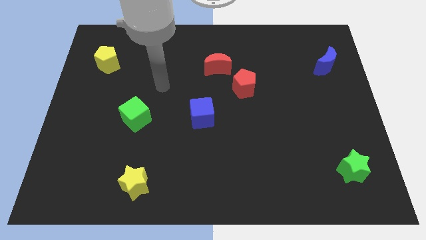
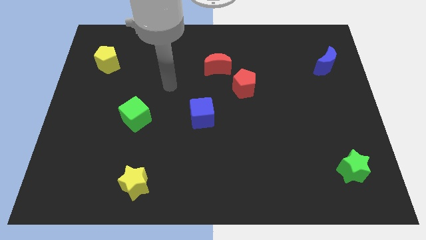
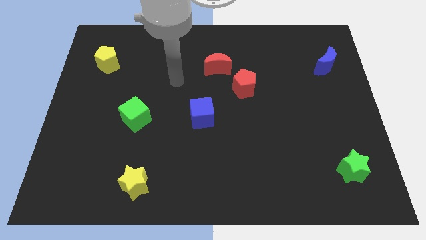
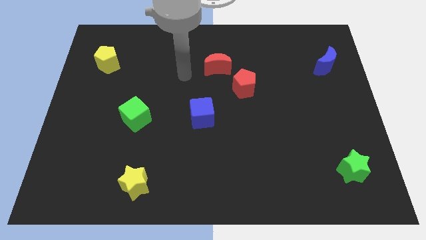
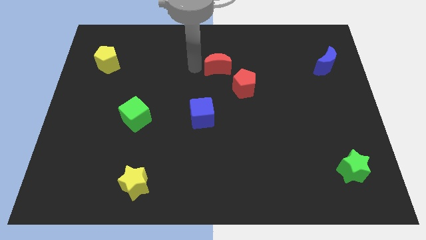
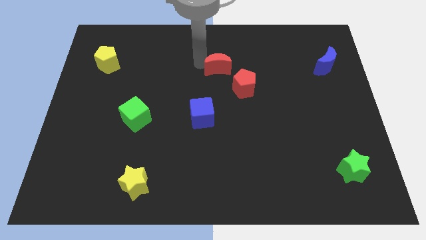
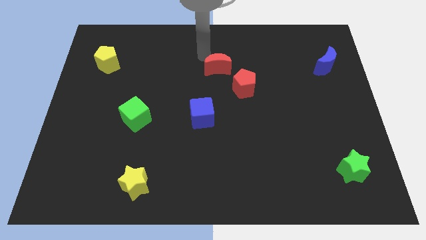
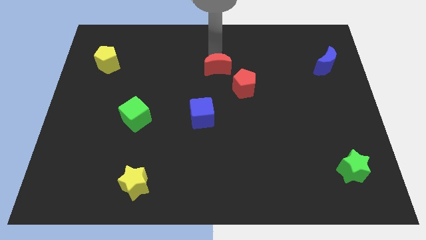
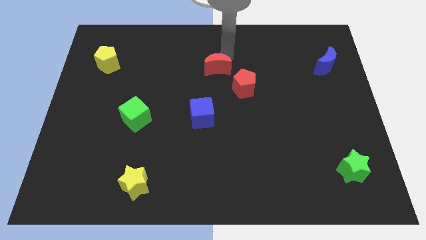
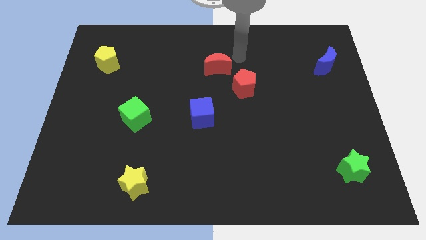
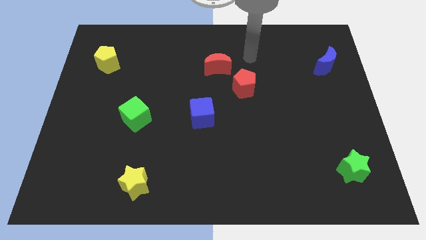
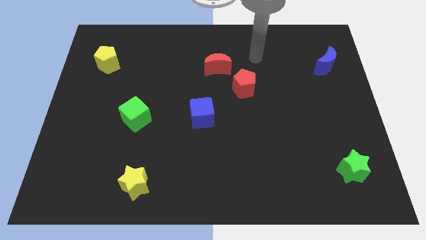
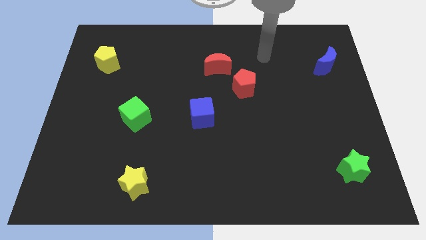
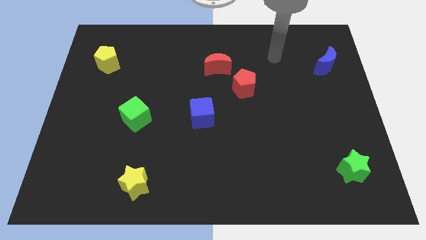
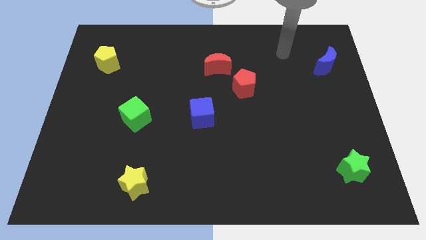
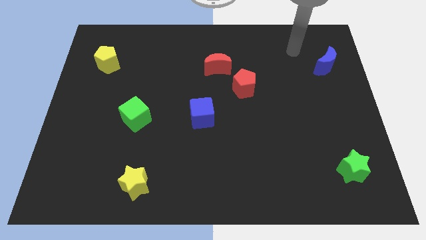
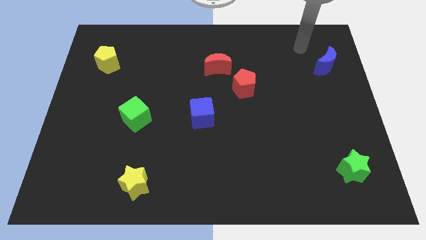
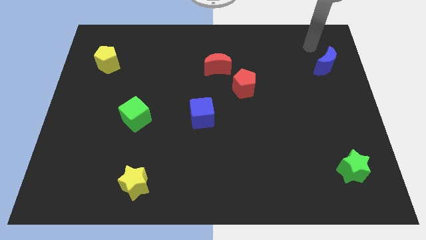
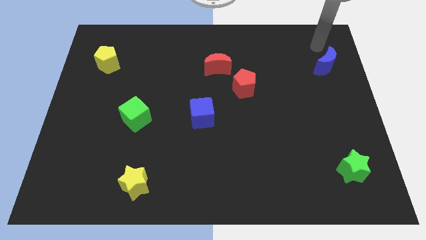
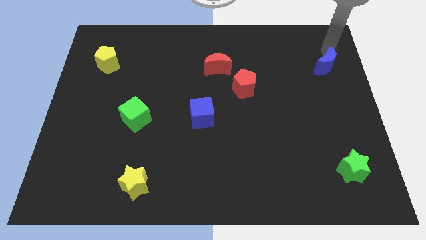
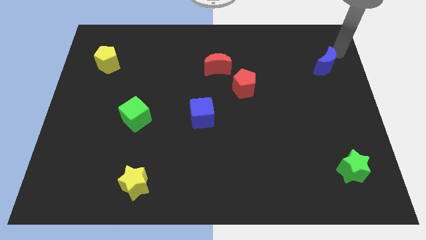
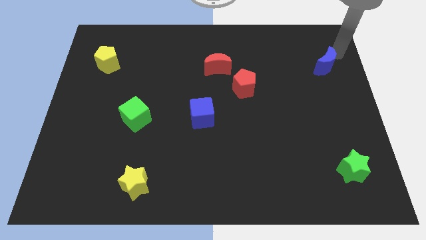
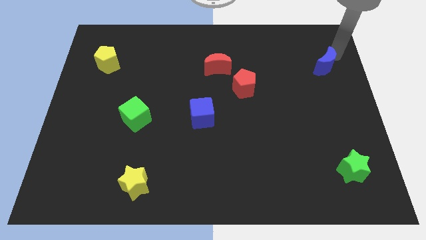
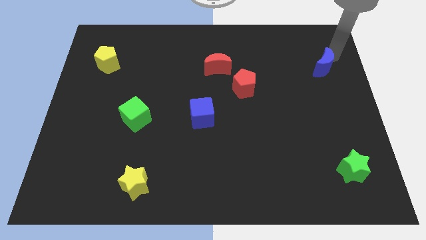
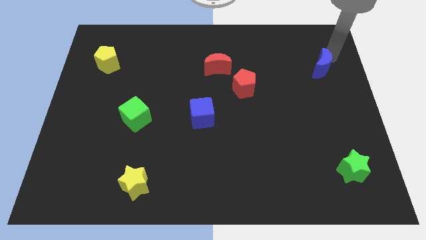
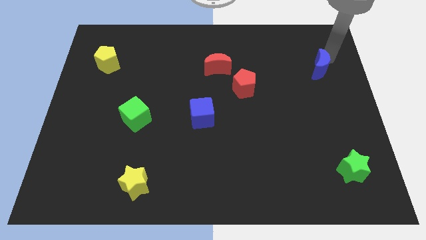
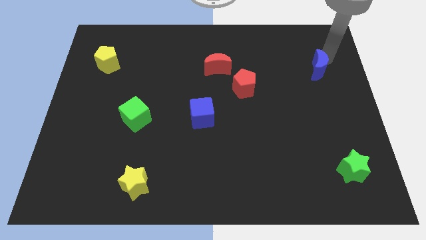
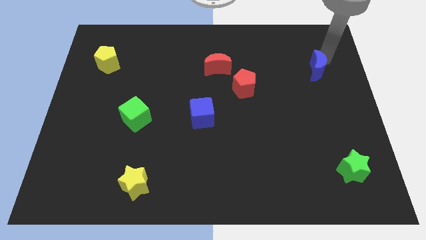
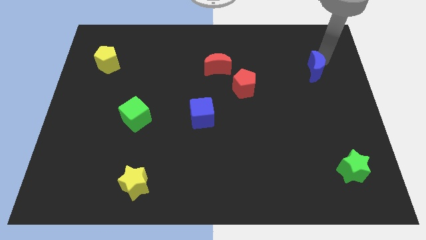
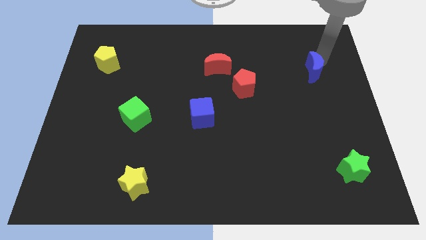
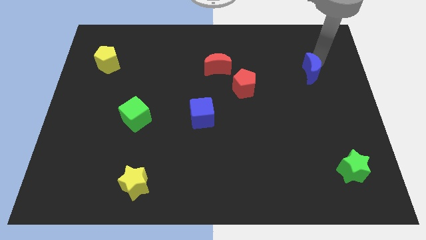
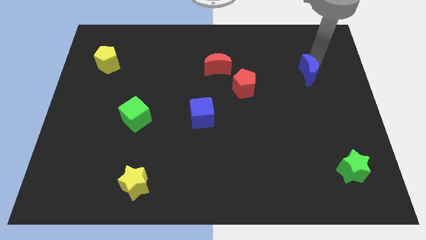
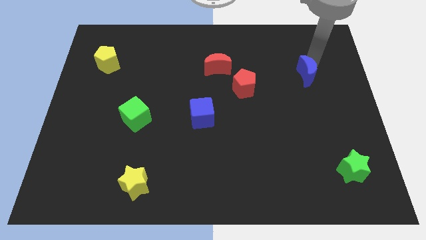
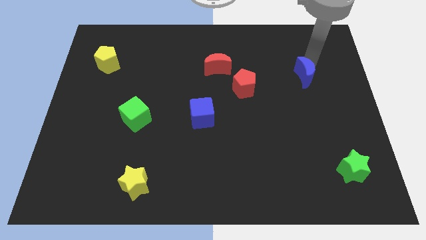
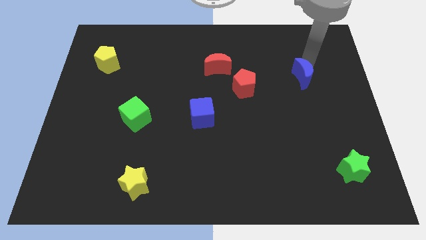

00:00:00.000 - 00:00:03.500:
slightly move the blue moon down and left

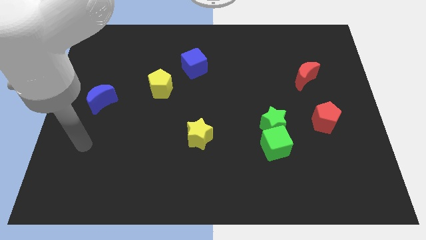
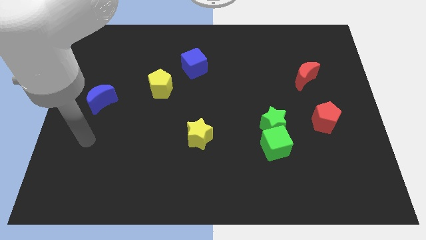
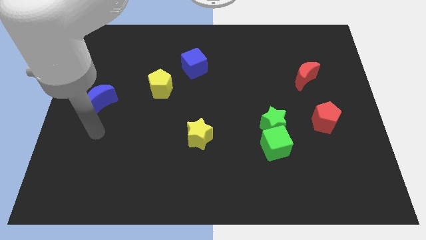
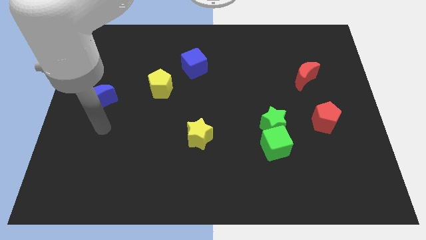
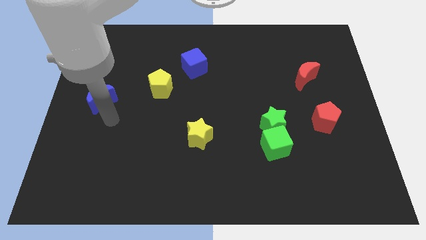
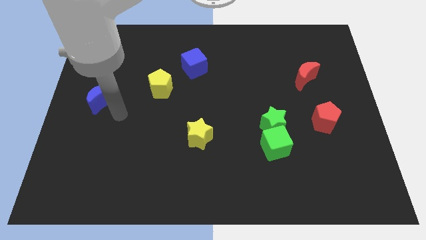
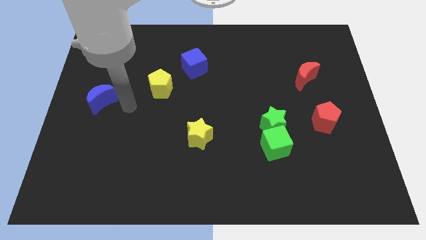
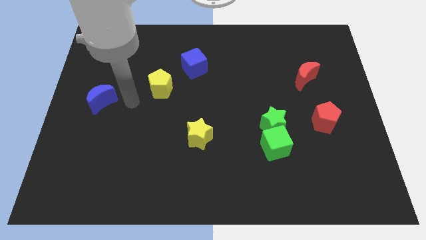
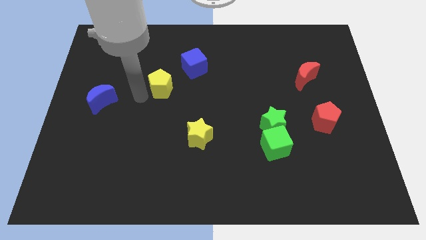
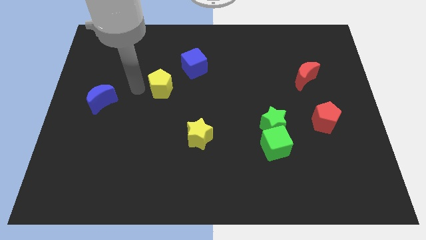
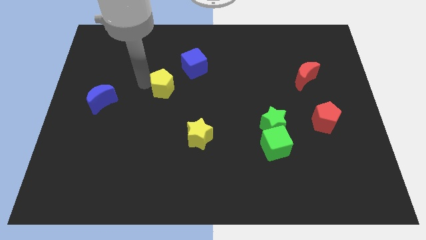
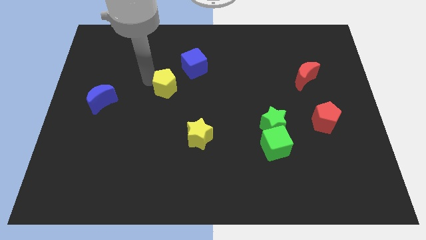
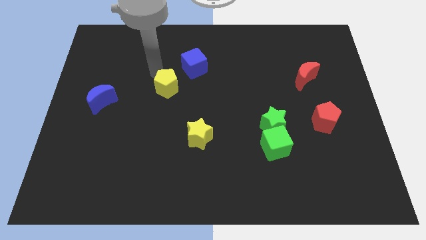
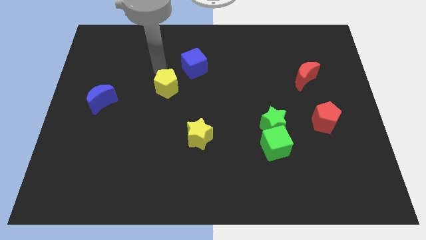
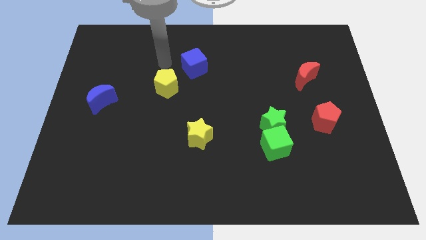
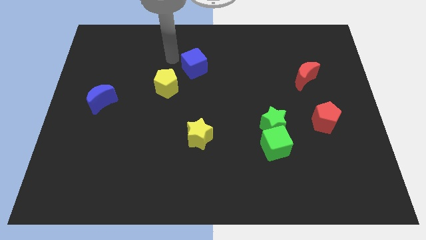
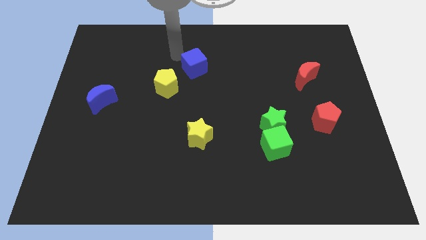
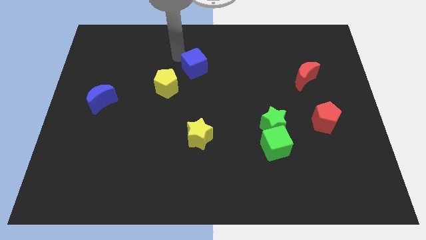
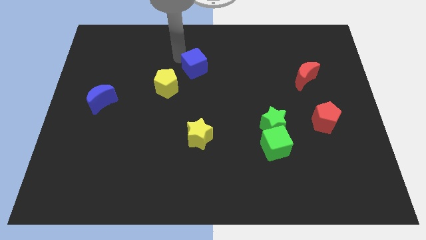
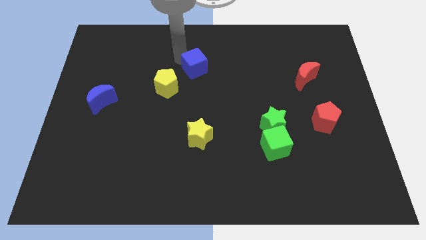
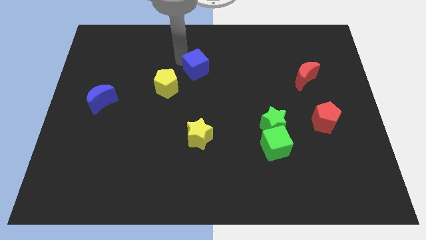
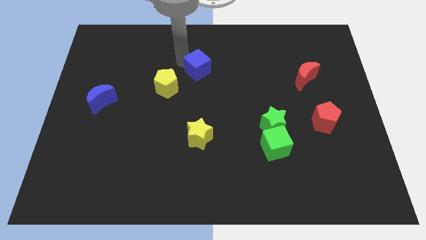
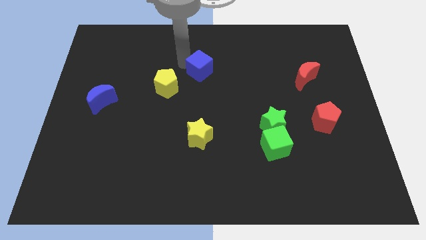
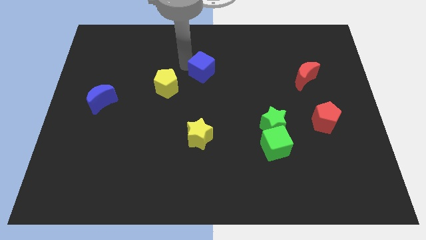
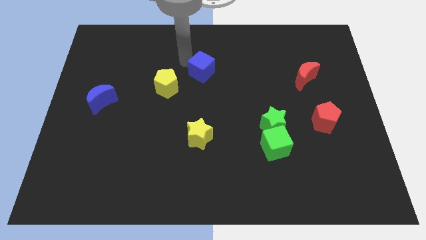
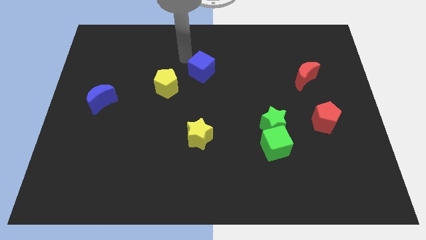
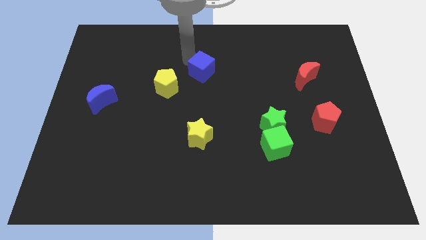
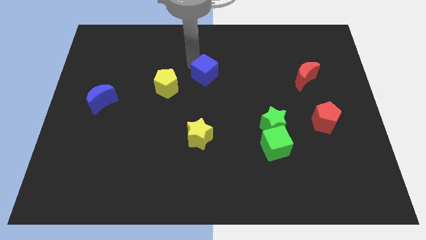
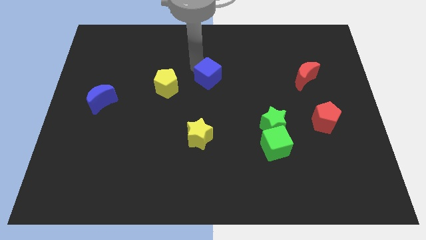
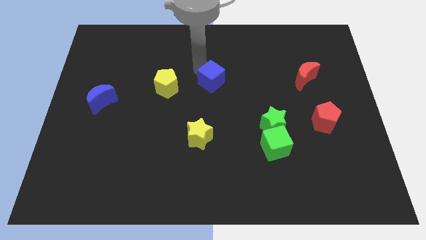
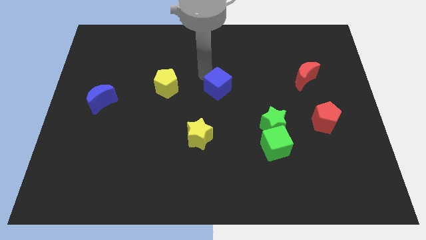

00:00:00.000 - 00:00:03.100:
slightly move the blue cube downwards and to the right diagonally

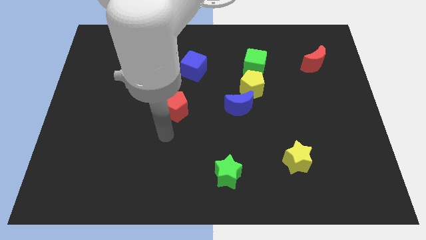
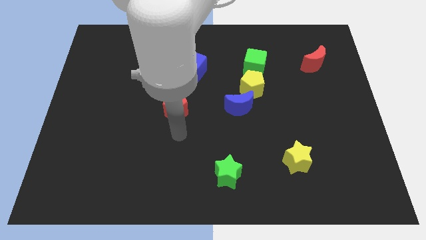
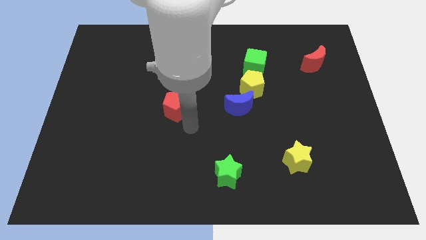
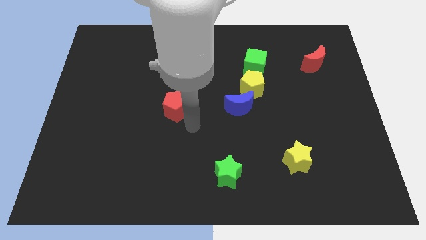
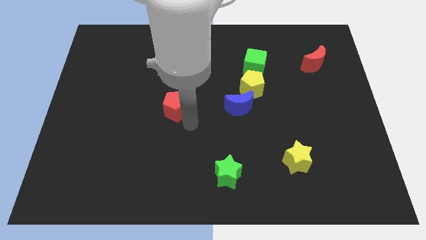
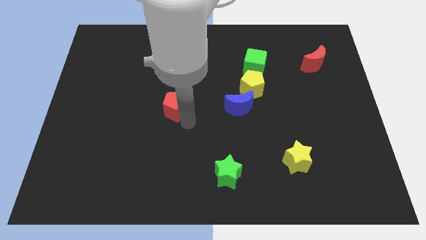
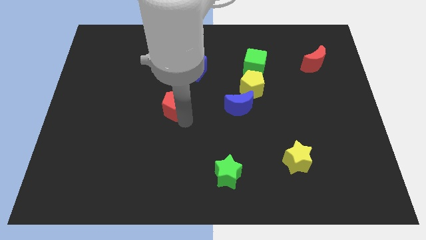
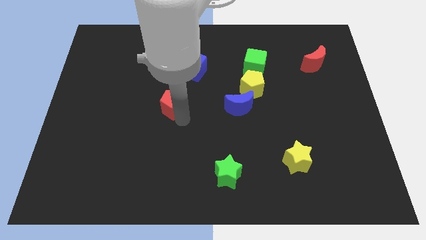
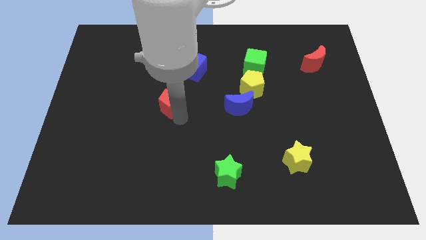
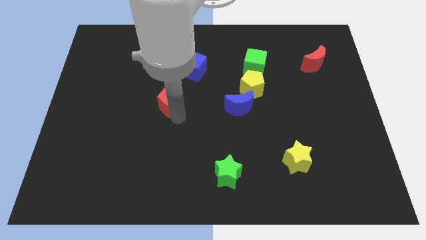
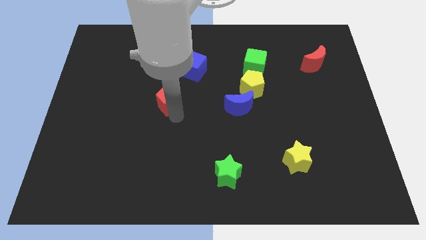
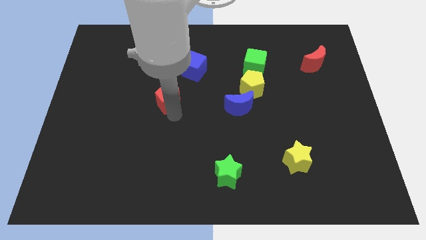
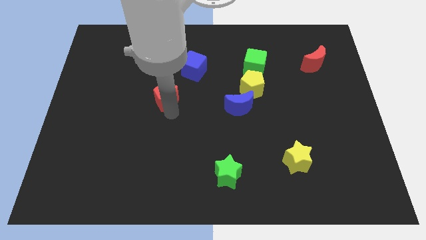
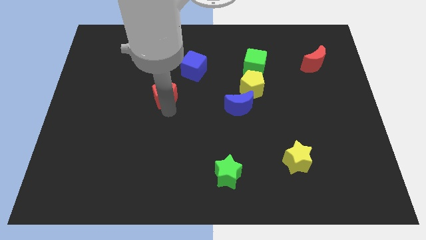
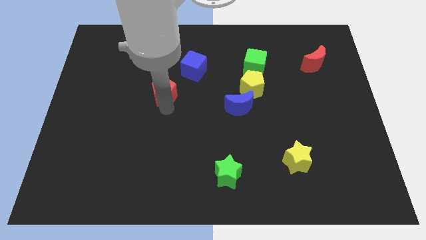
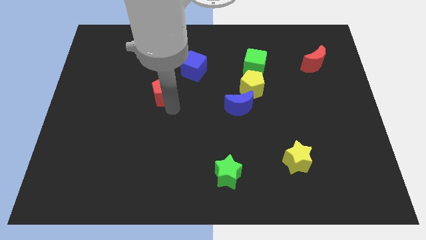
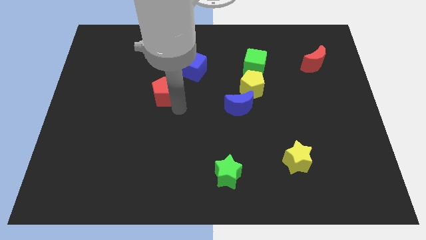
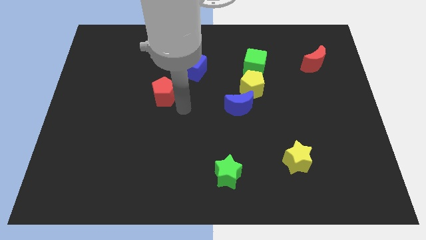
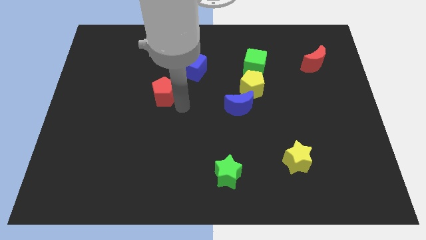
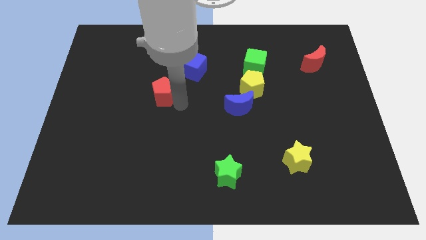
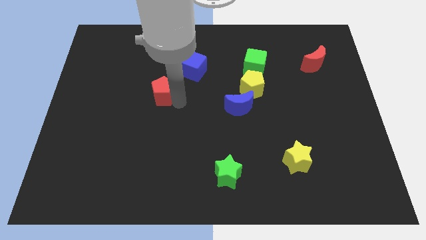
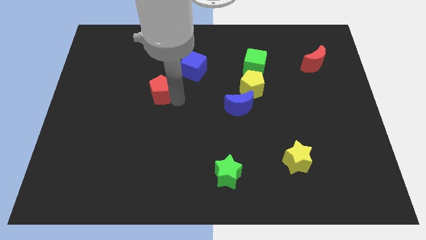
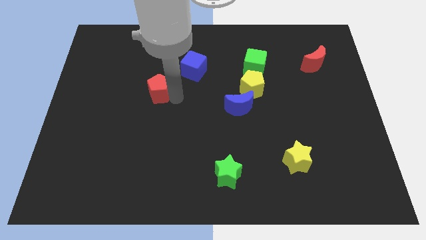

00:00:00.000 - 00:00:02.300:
push the red pentagon somewhat up and left
